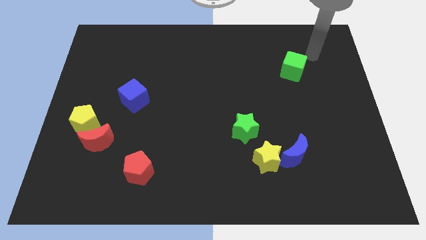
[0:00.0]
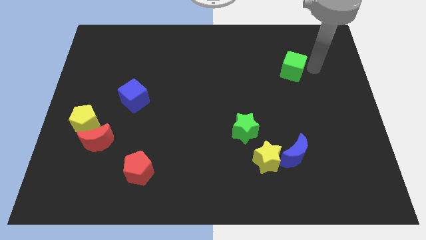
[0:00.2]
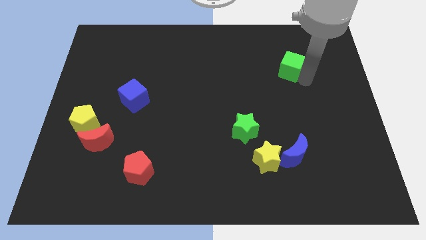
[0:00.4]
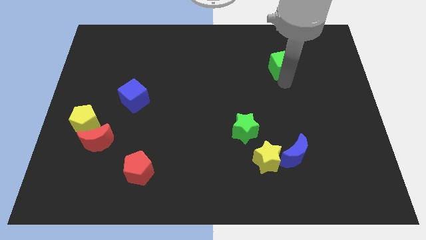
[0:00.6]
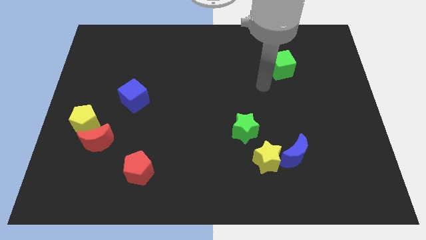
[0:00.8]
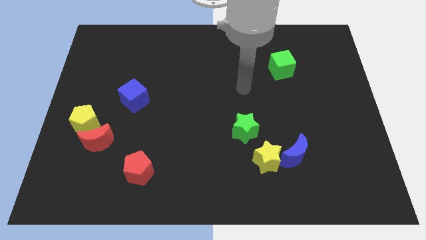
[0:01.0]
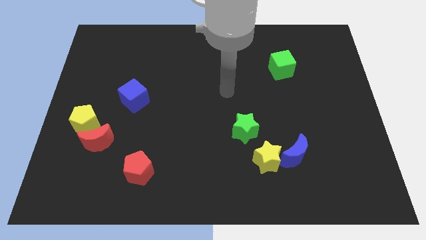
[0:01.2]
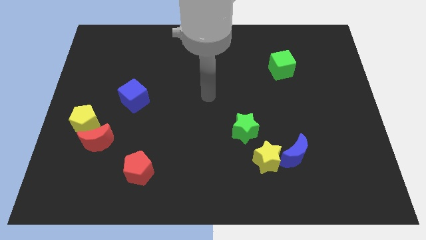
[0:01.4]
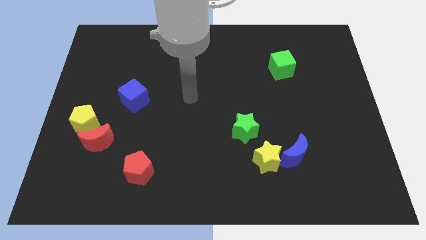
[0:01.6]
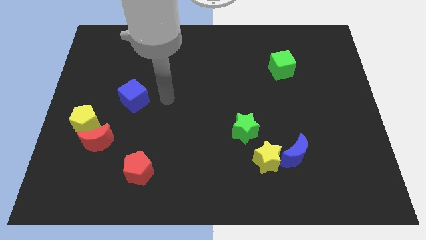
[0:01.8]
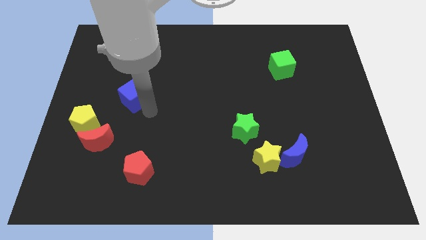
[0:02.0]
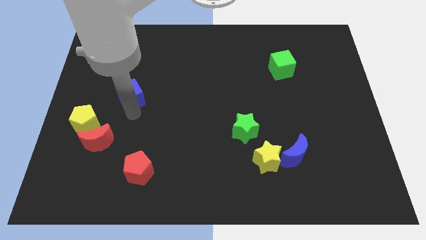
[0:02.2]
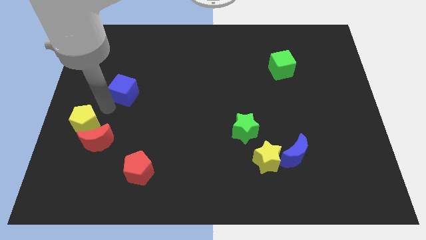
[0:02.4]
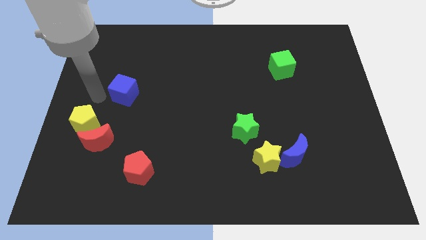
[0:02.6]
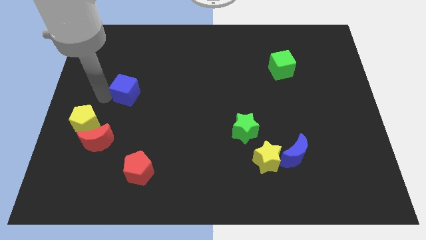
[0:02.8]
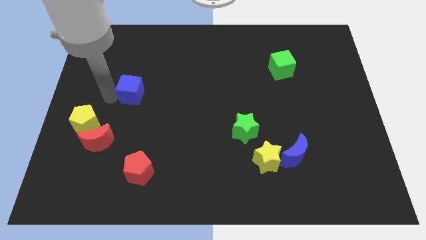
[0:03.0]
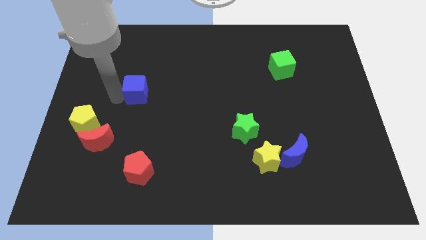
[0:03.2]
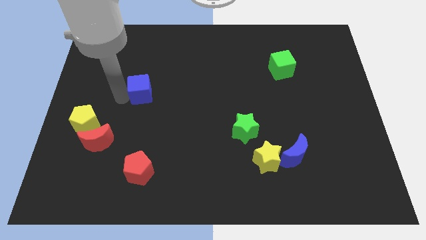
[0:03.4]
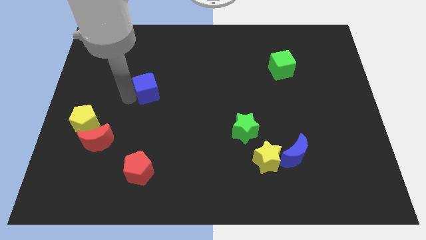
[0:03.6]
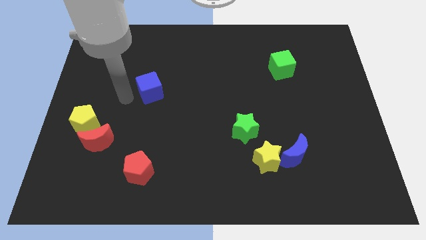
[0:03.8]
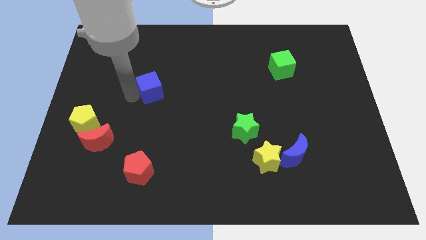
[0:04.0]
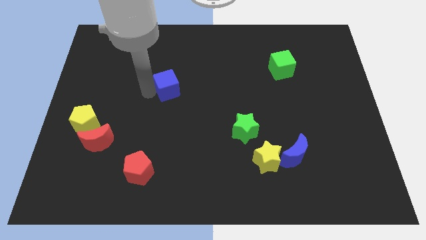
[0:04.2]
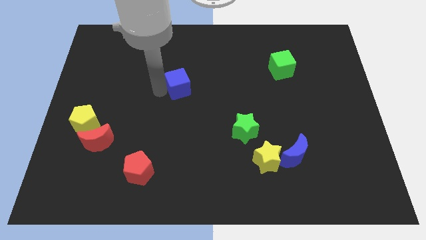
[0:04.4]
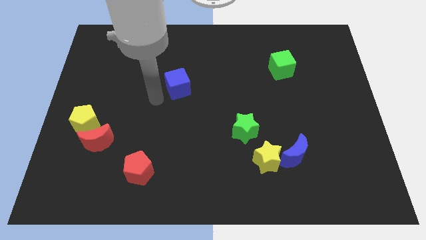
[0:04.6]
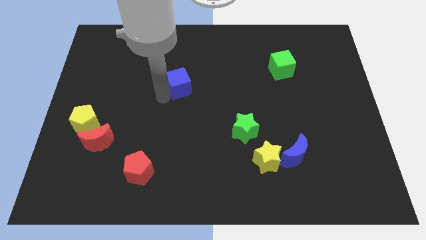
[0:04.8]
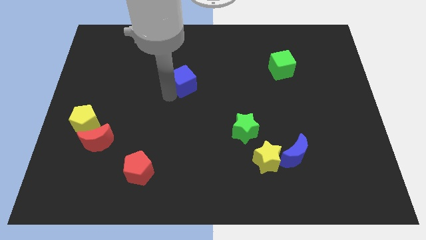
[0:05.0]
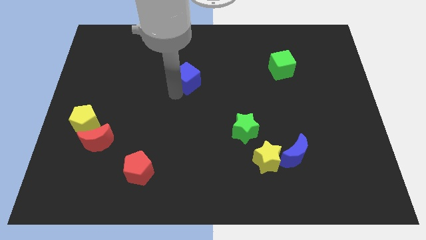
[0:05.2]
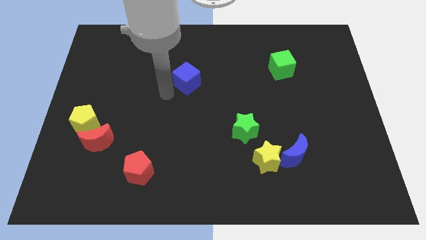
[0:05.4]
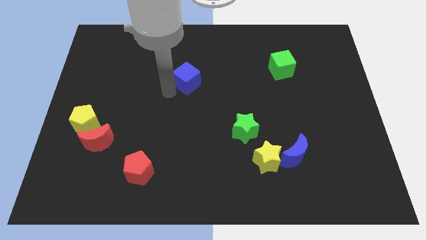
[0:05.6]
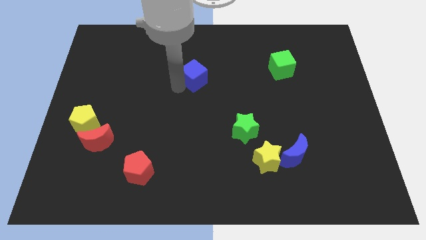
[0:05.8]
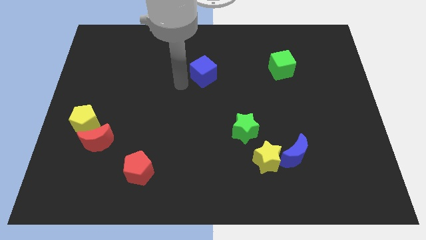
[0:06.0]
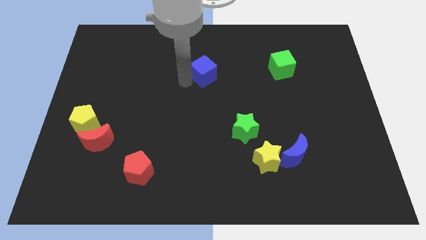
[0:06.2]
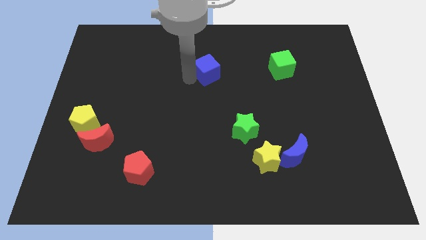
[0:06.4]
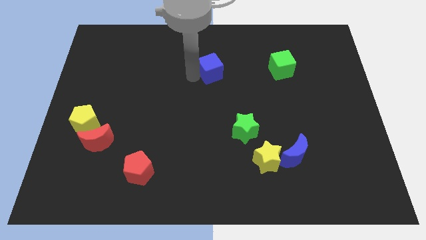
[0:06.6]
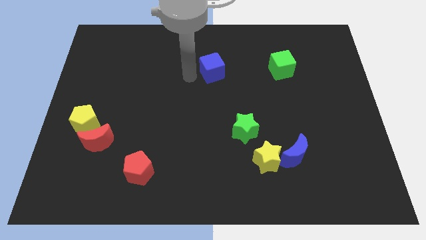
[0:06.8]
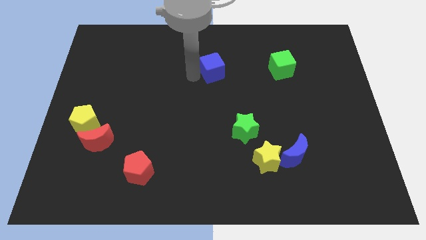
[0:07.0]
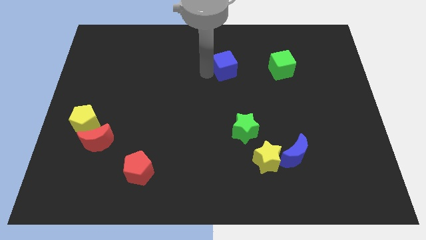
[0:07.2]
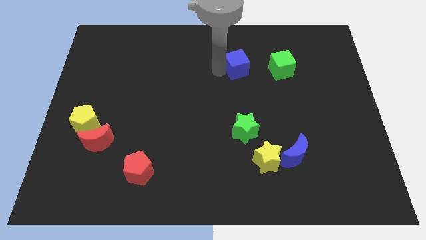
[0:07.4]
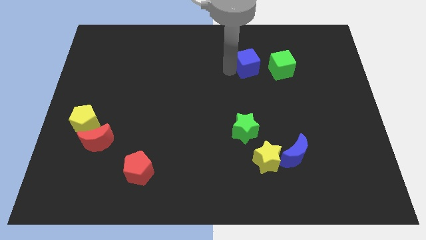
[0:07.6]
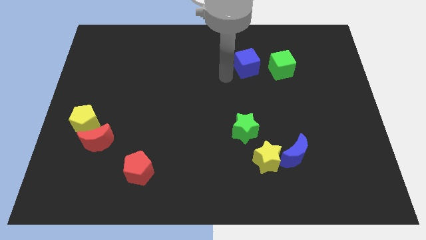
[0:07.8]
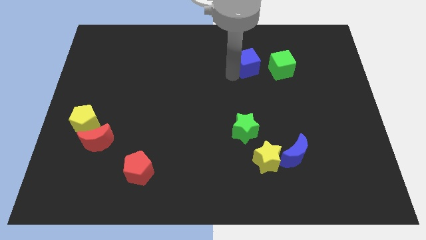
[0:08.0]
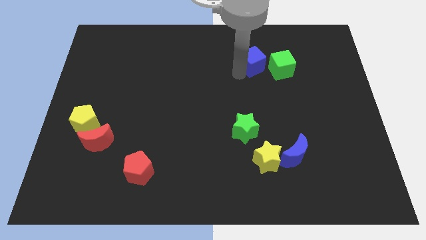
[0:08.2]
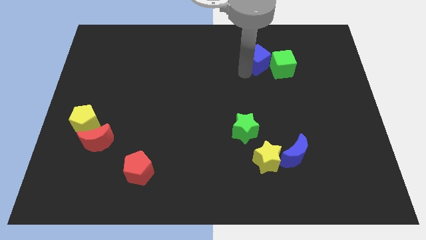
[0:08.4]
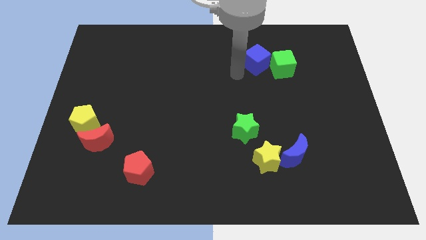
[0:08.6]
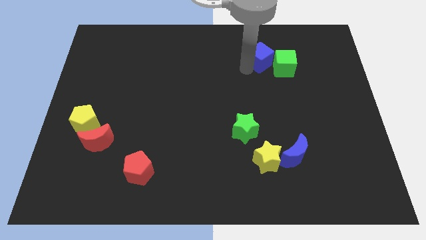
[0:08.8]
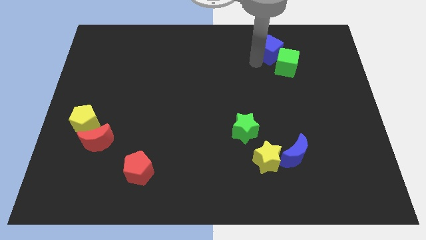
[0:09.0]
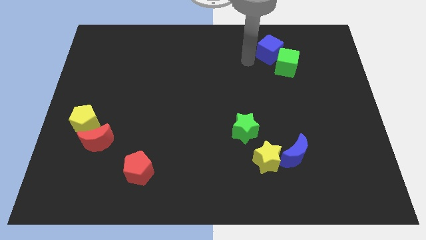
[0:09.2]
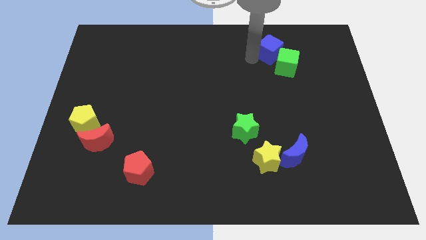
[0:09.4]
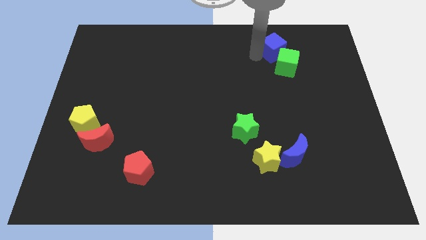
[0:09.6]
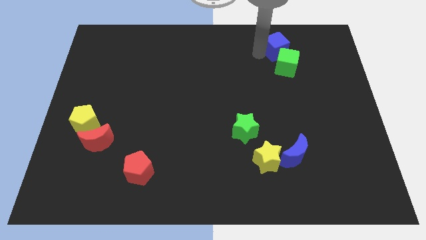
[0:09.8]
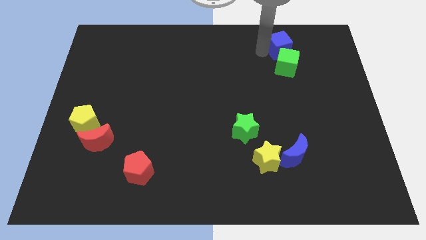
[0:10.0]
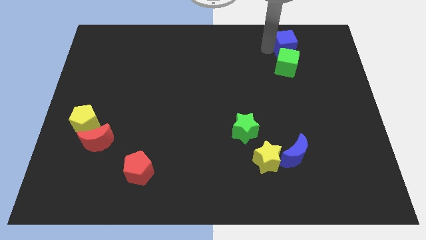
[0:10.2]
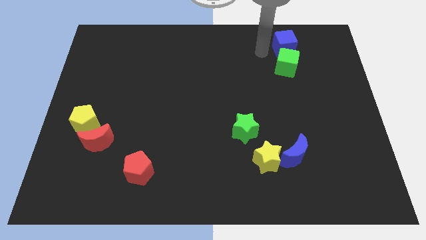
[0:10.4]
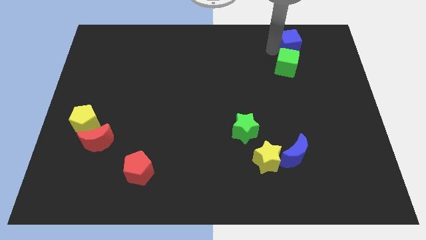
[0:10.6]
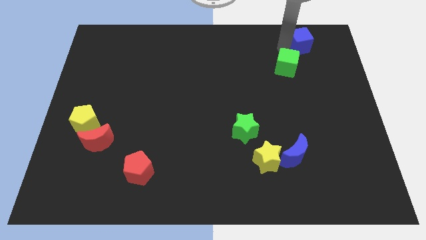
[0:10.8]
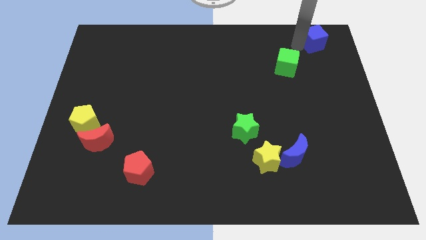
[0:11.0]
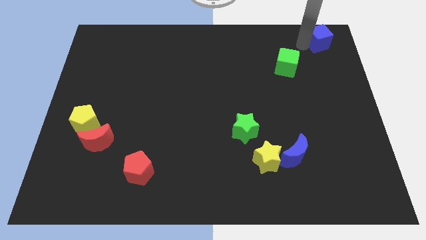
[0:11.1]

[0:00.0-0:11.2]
slide the blue cube to the top right of the board

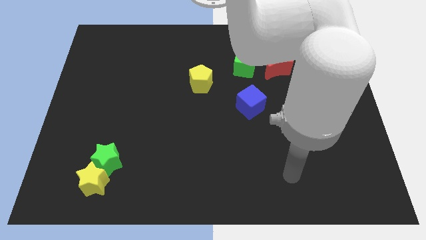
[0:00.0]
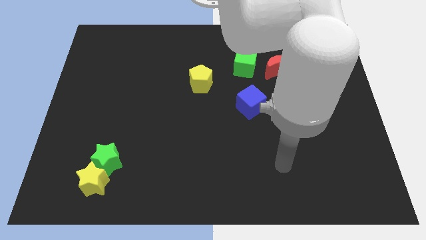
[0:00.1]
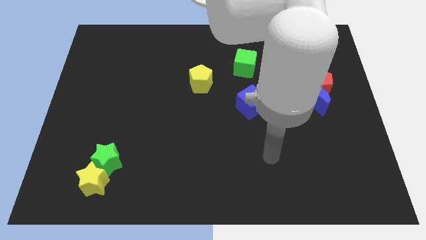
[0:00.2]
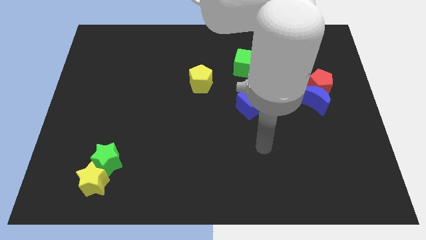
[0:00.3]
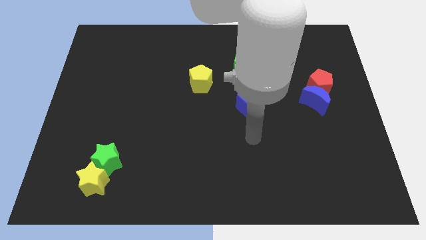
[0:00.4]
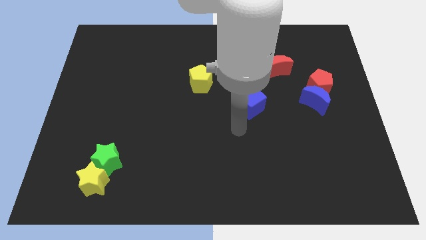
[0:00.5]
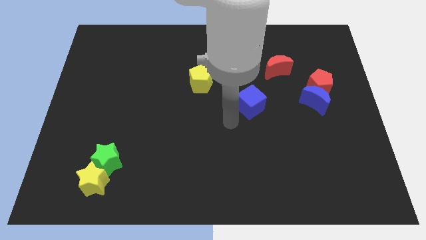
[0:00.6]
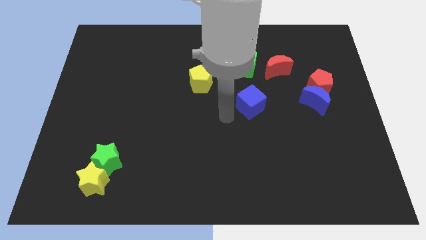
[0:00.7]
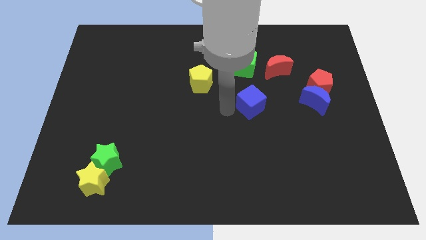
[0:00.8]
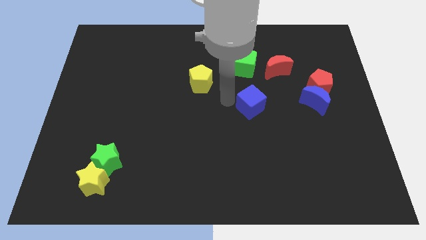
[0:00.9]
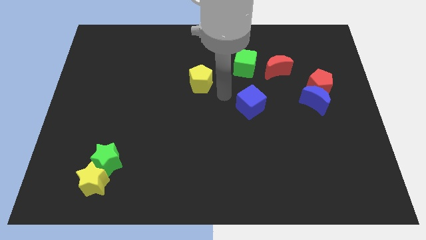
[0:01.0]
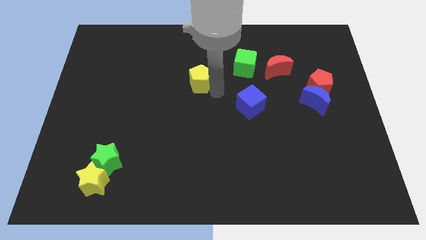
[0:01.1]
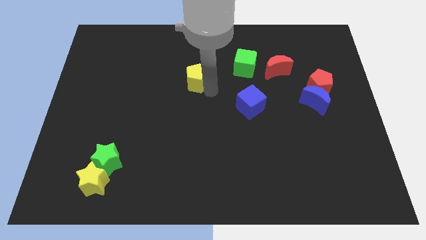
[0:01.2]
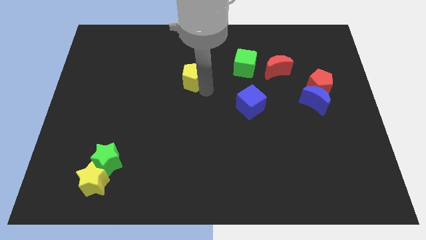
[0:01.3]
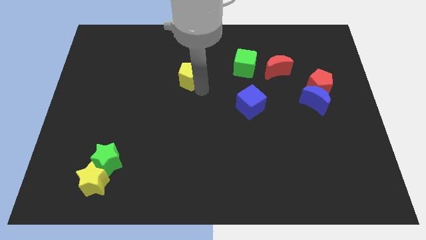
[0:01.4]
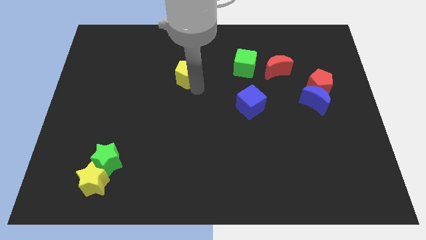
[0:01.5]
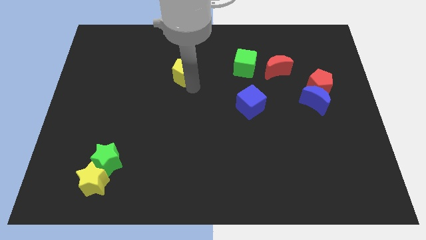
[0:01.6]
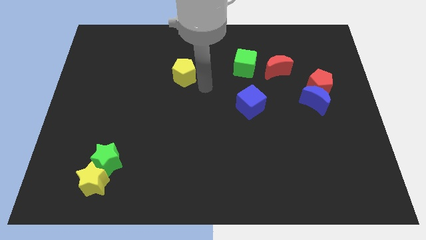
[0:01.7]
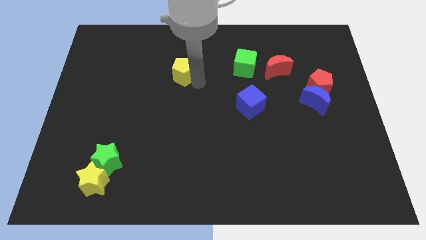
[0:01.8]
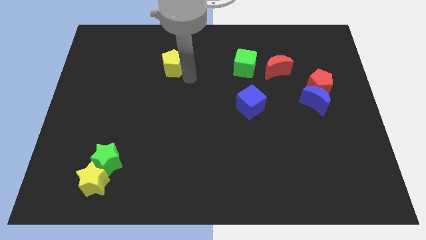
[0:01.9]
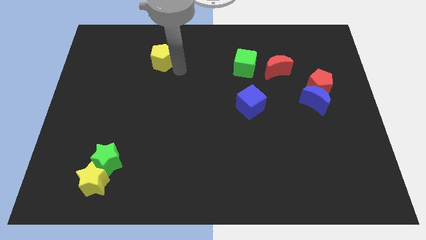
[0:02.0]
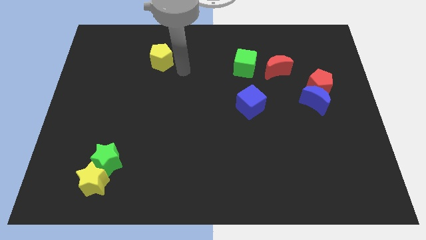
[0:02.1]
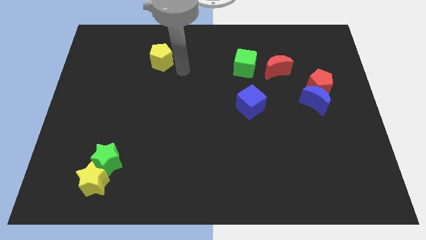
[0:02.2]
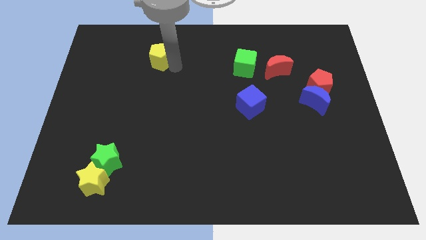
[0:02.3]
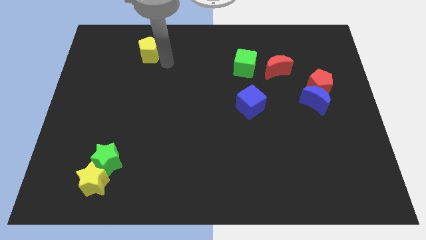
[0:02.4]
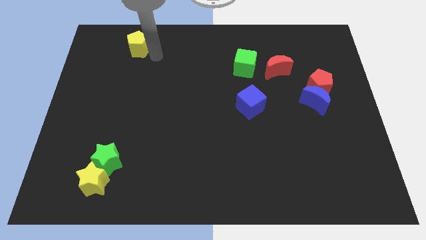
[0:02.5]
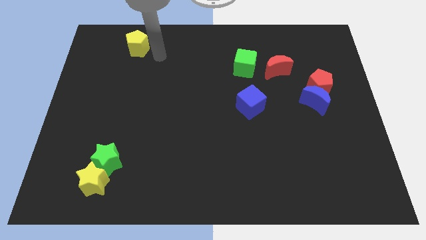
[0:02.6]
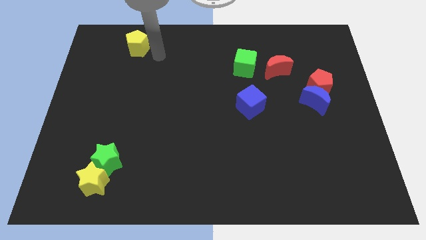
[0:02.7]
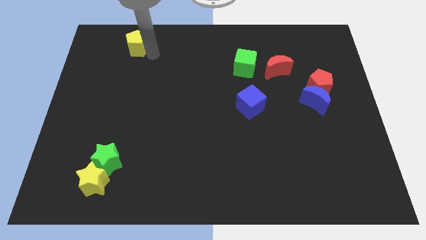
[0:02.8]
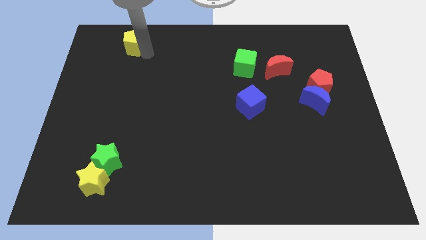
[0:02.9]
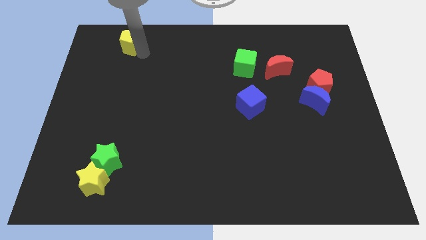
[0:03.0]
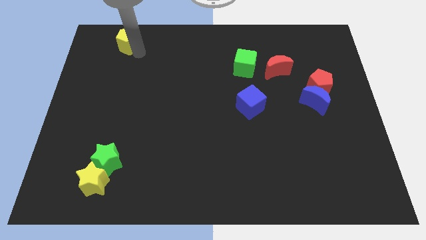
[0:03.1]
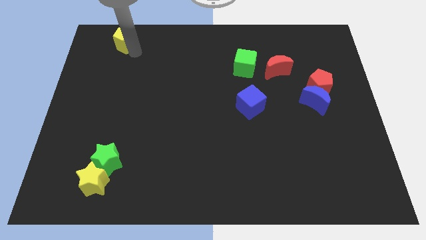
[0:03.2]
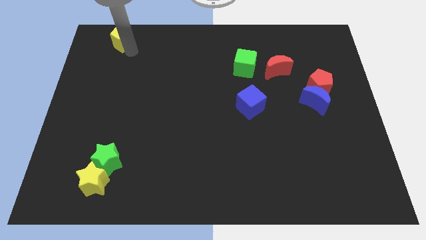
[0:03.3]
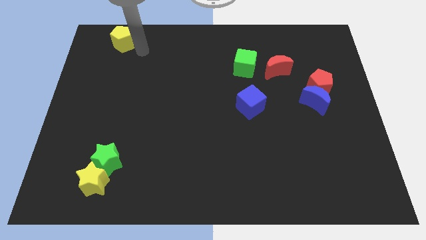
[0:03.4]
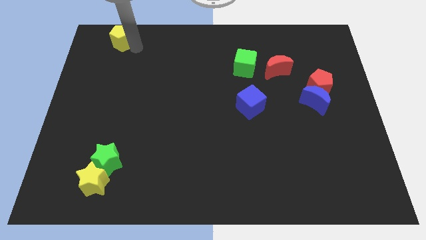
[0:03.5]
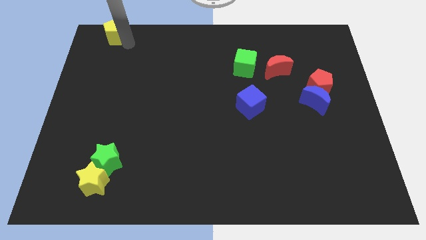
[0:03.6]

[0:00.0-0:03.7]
move the yellow pentagon to the upper left corner
